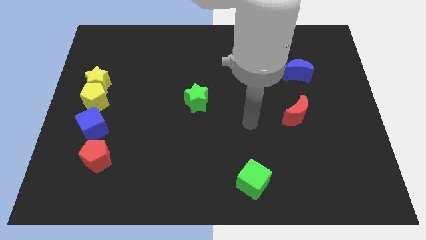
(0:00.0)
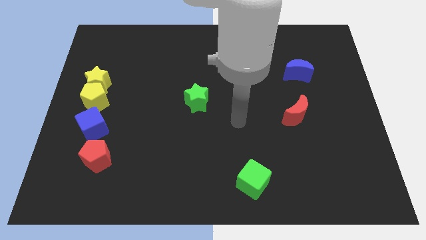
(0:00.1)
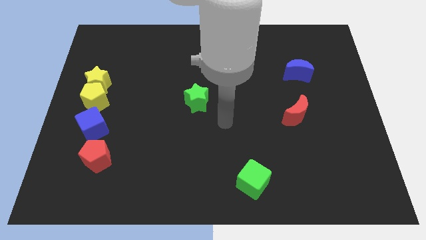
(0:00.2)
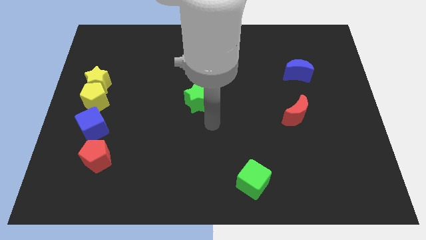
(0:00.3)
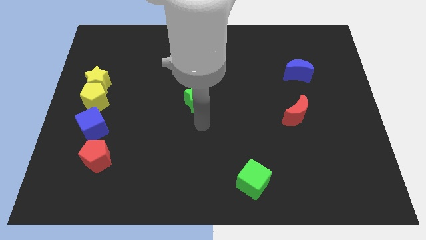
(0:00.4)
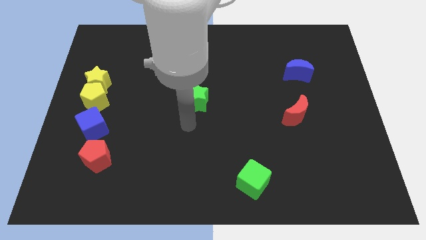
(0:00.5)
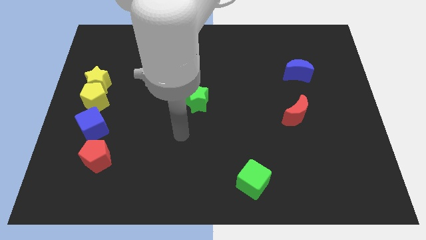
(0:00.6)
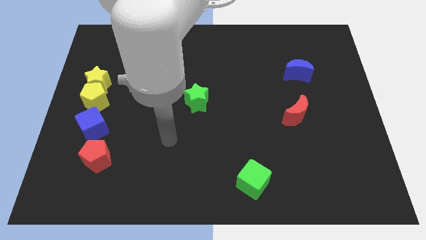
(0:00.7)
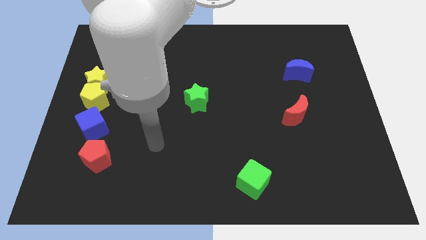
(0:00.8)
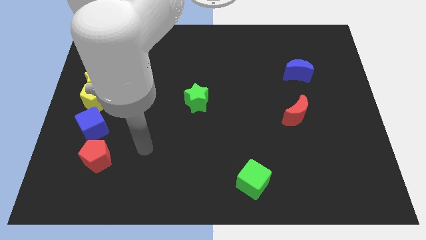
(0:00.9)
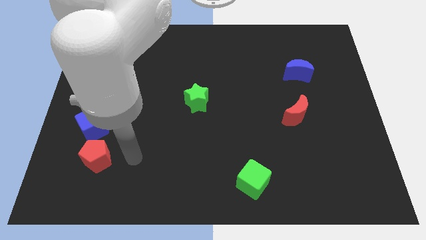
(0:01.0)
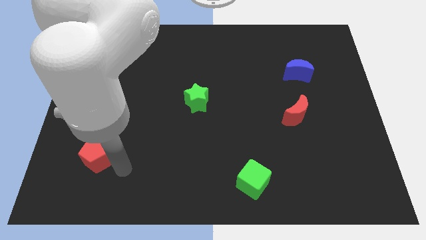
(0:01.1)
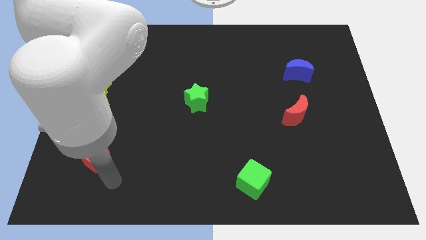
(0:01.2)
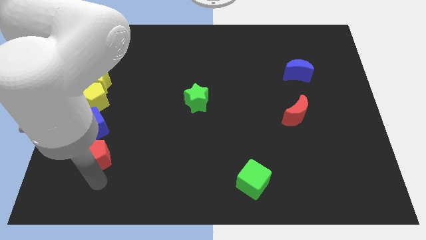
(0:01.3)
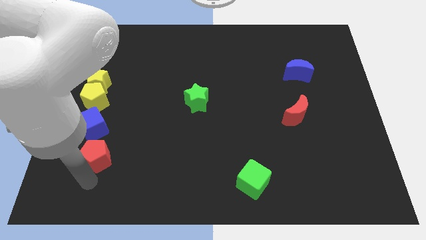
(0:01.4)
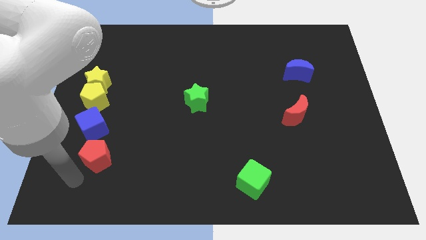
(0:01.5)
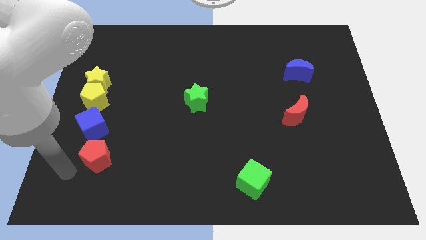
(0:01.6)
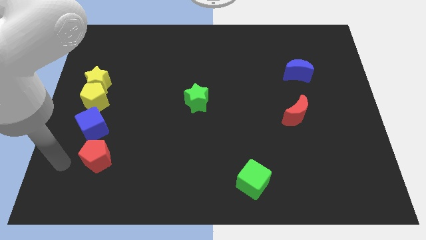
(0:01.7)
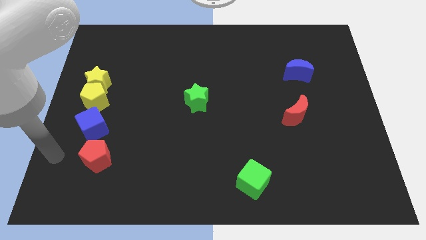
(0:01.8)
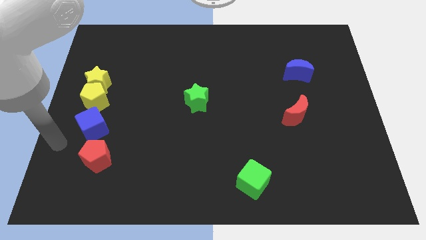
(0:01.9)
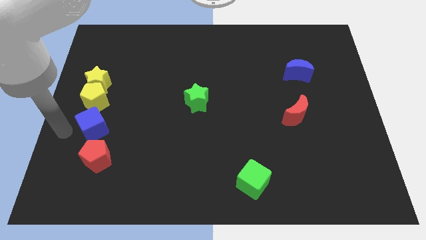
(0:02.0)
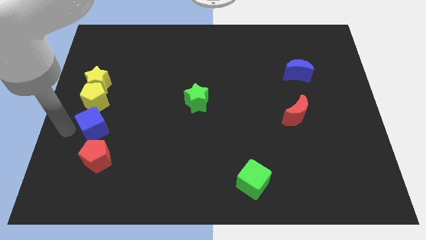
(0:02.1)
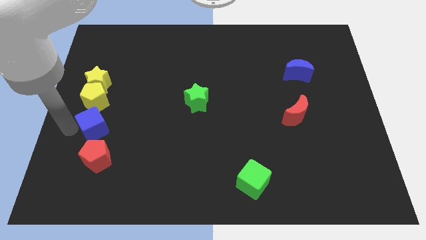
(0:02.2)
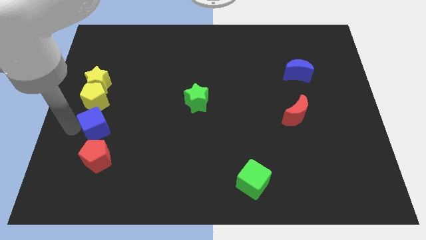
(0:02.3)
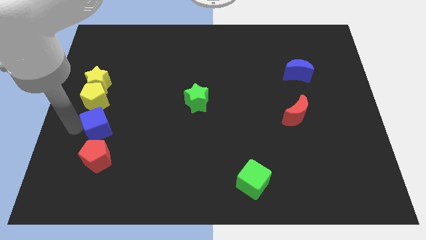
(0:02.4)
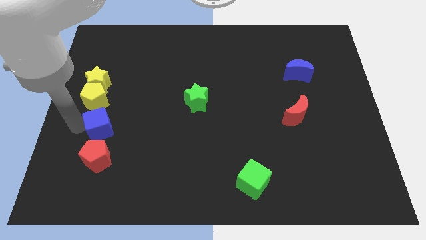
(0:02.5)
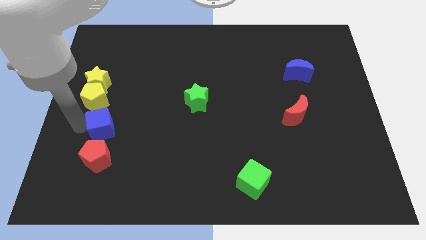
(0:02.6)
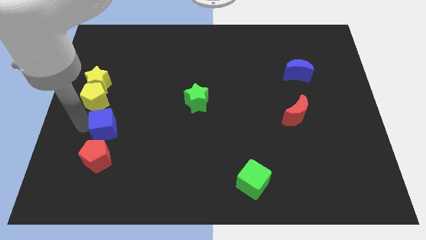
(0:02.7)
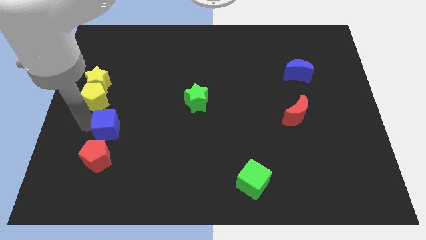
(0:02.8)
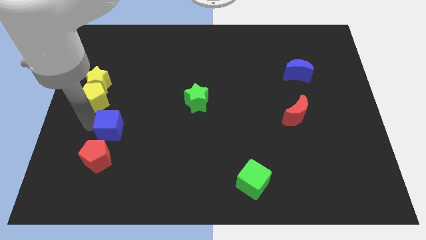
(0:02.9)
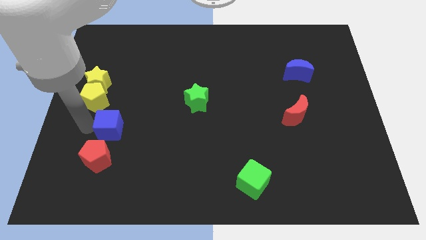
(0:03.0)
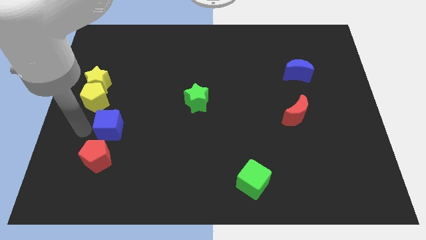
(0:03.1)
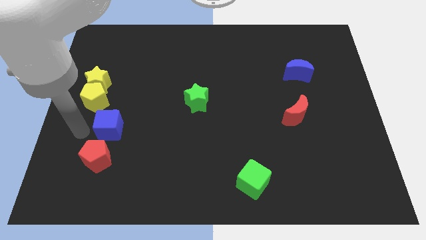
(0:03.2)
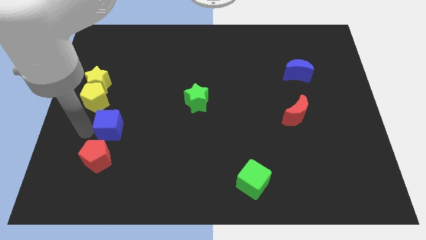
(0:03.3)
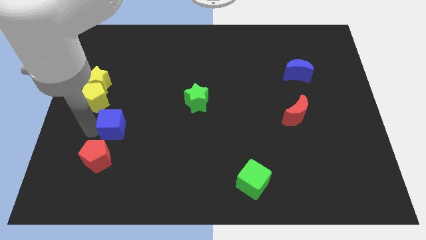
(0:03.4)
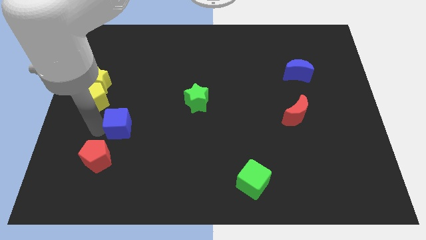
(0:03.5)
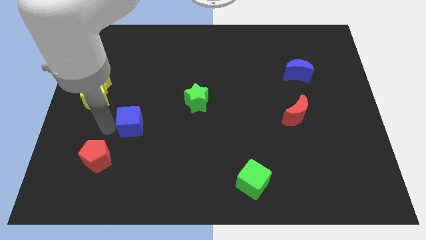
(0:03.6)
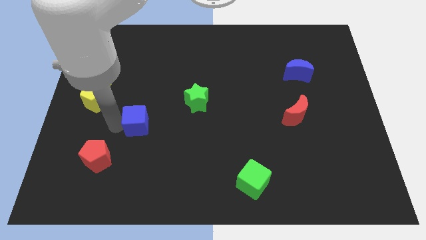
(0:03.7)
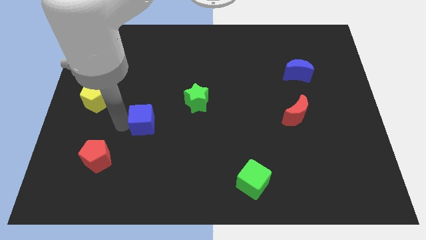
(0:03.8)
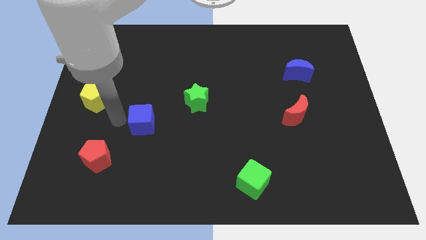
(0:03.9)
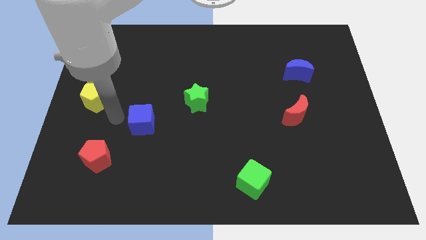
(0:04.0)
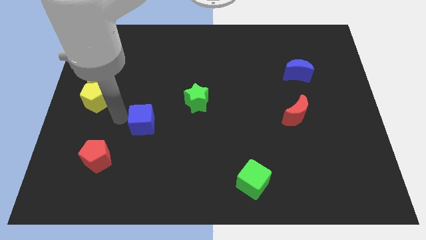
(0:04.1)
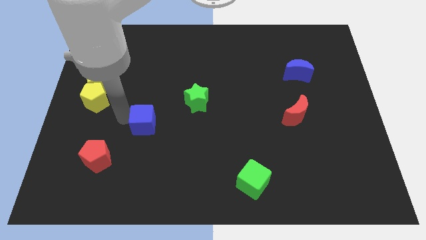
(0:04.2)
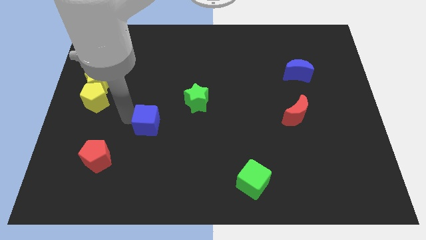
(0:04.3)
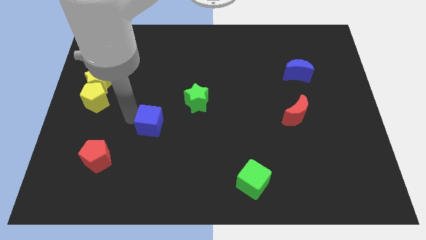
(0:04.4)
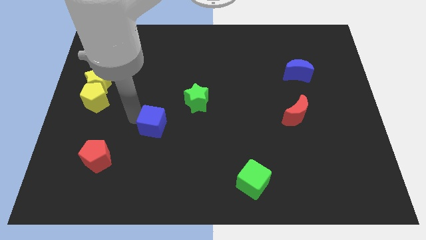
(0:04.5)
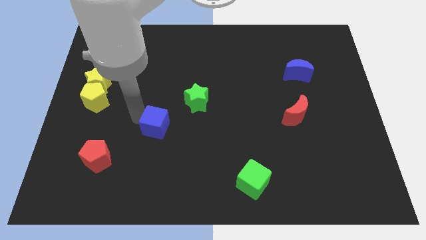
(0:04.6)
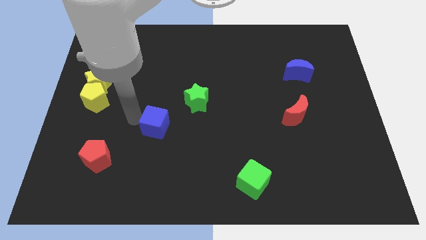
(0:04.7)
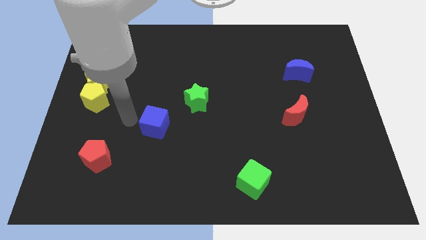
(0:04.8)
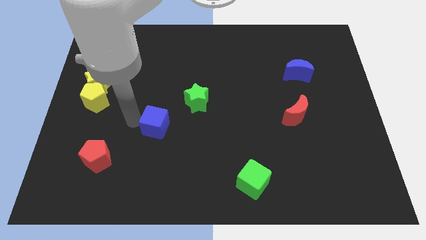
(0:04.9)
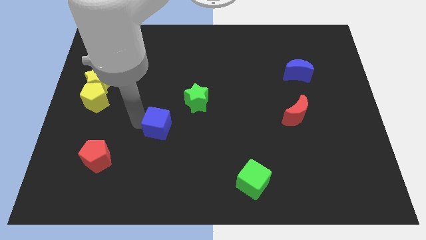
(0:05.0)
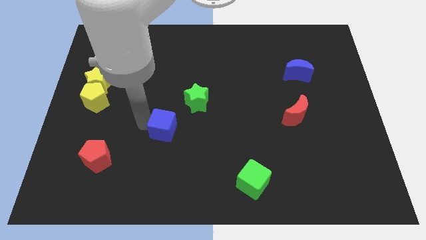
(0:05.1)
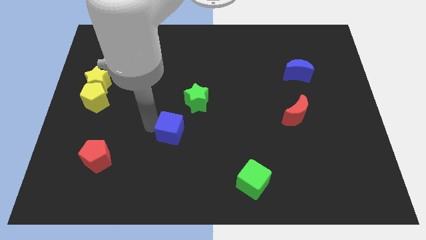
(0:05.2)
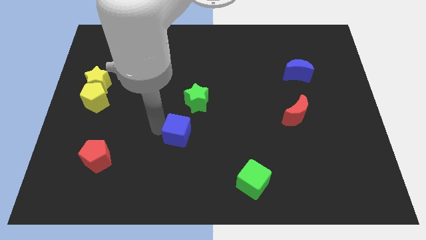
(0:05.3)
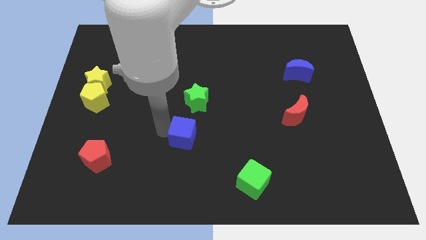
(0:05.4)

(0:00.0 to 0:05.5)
slide the blue cube to the right

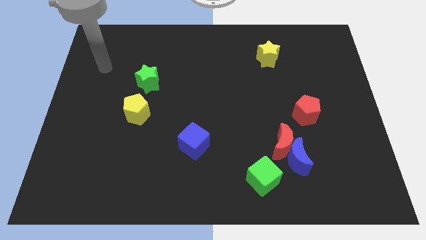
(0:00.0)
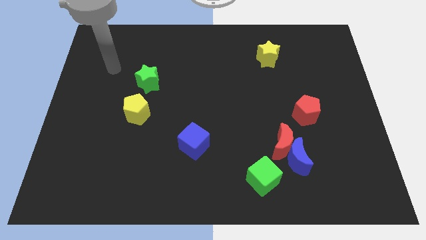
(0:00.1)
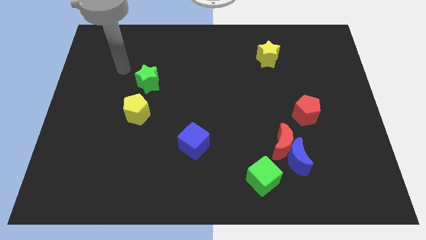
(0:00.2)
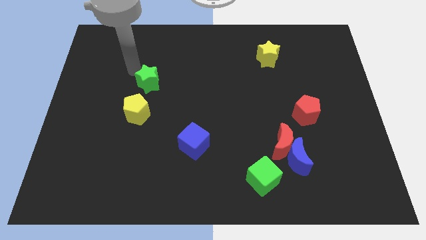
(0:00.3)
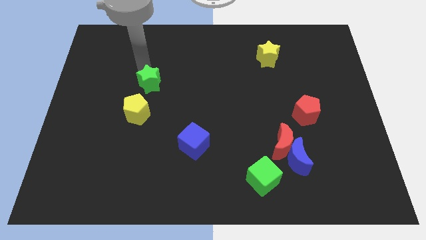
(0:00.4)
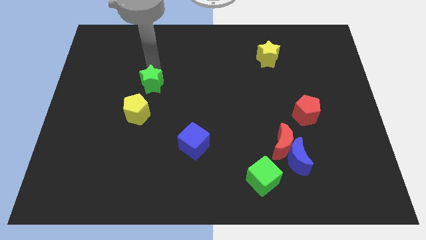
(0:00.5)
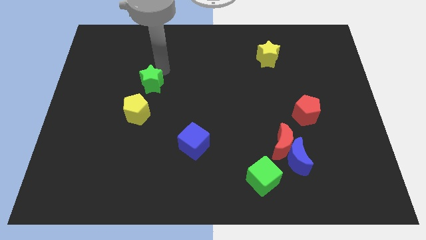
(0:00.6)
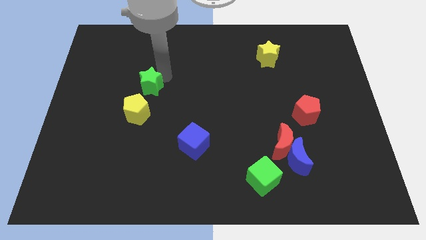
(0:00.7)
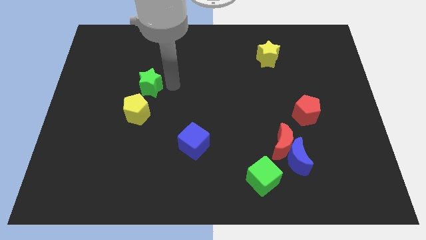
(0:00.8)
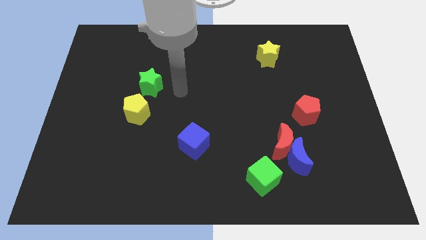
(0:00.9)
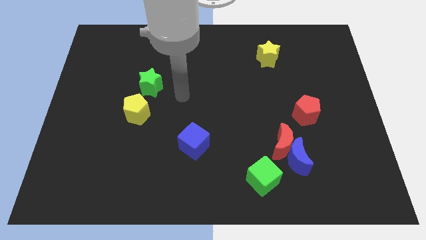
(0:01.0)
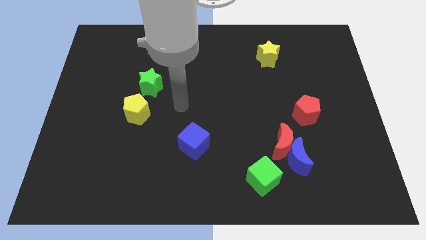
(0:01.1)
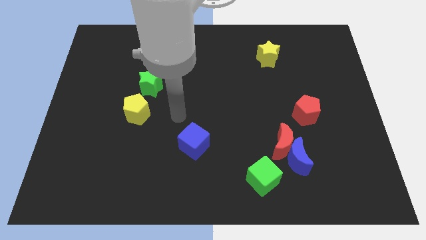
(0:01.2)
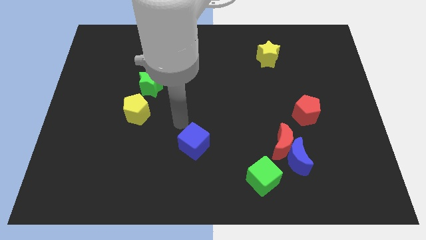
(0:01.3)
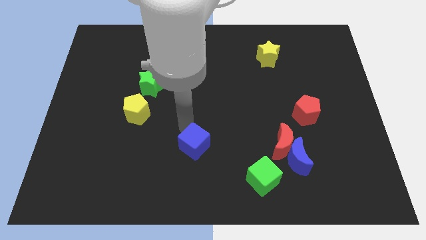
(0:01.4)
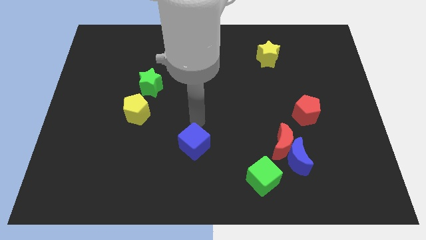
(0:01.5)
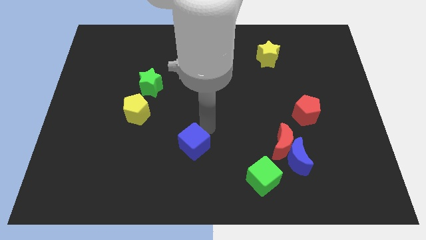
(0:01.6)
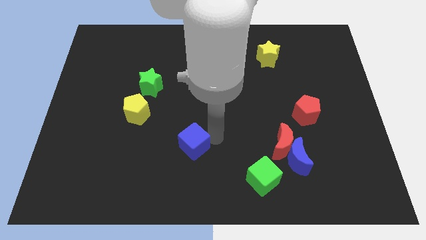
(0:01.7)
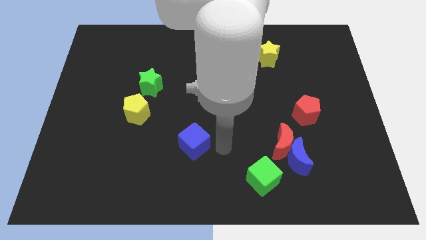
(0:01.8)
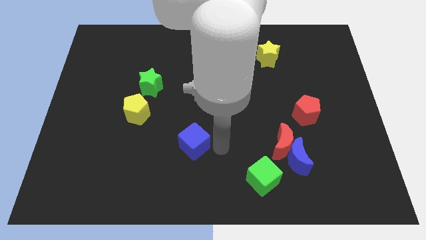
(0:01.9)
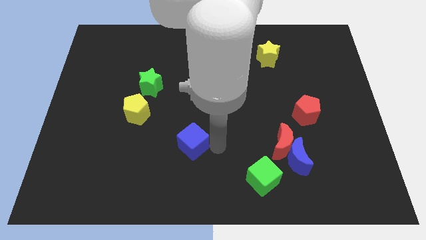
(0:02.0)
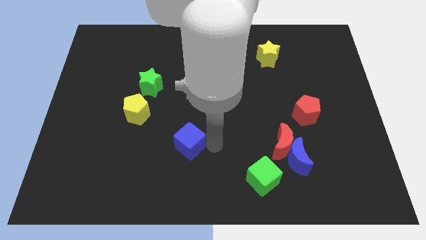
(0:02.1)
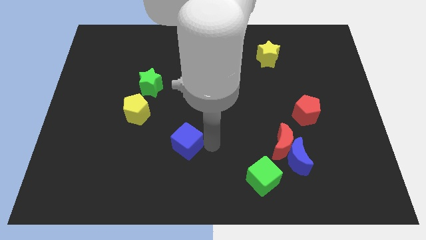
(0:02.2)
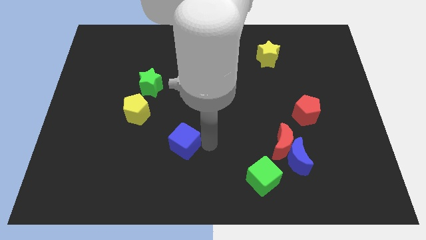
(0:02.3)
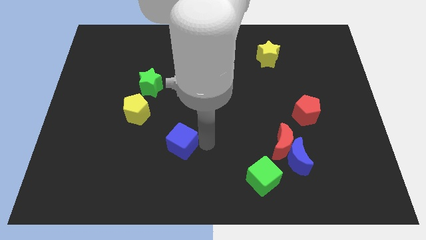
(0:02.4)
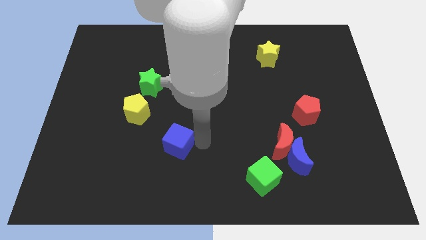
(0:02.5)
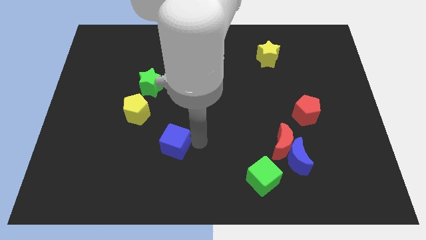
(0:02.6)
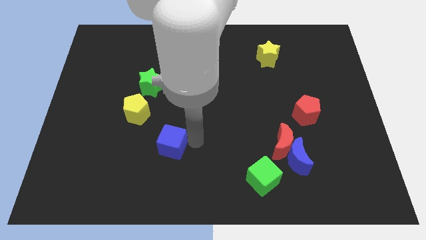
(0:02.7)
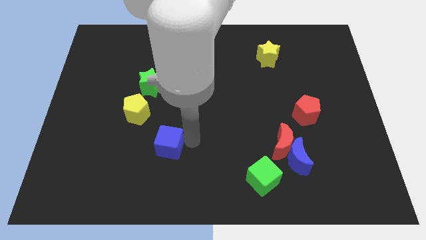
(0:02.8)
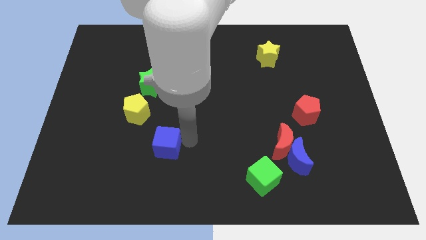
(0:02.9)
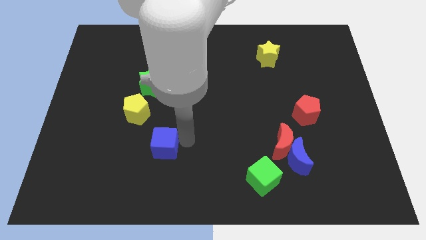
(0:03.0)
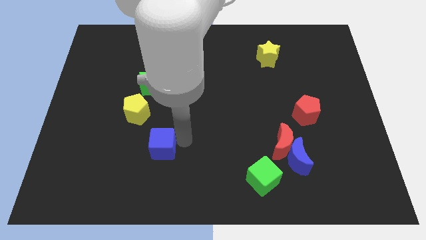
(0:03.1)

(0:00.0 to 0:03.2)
push the blue cube left a bit
